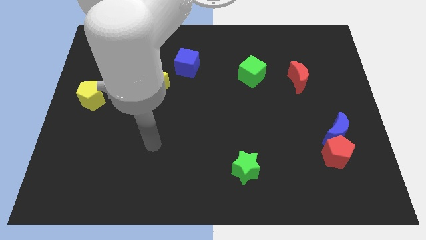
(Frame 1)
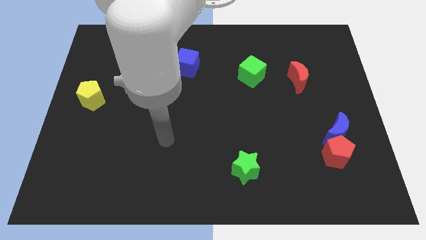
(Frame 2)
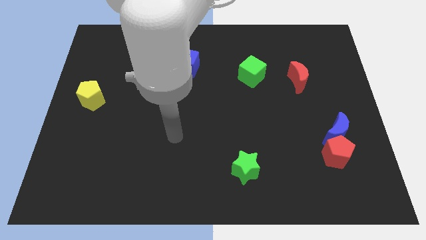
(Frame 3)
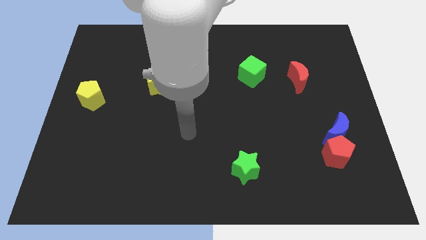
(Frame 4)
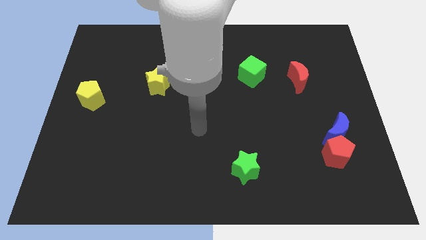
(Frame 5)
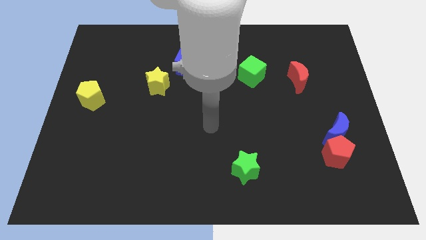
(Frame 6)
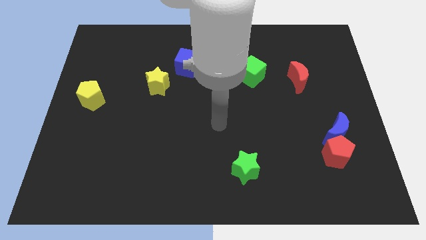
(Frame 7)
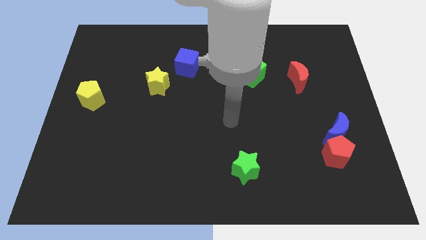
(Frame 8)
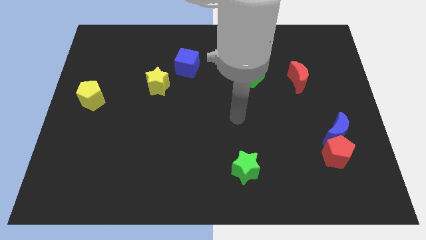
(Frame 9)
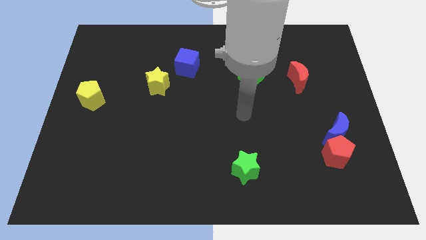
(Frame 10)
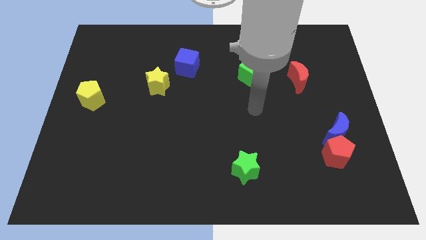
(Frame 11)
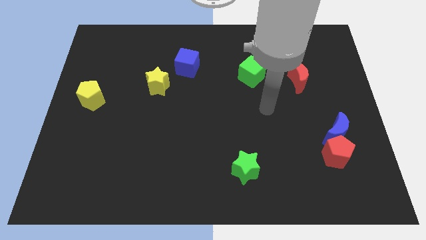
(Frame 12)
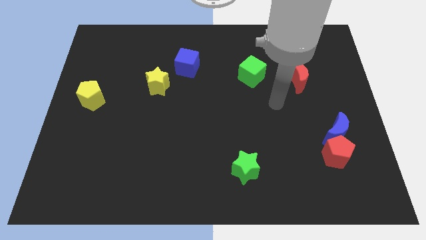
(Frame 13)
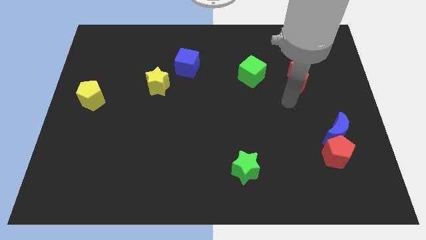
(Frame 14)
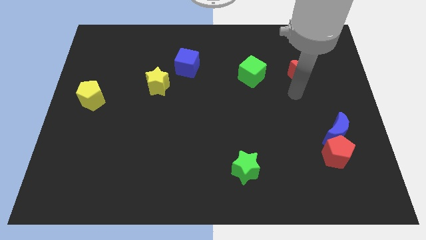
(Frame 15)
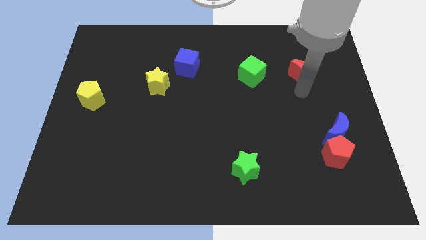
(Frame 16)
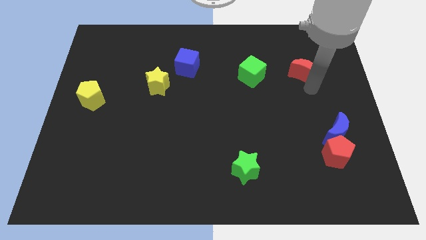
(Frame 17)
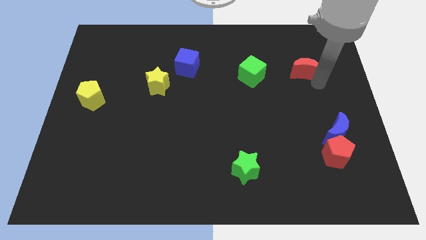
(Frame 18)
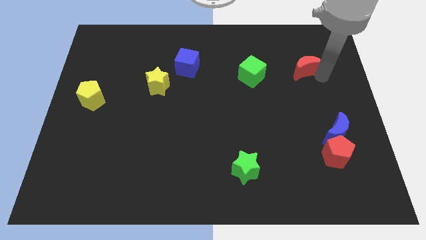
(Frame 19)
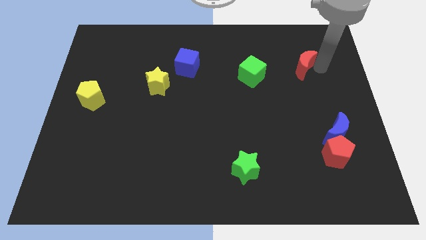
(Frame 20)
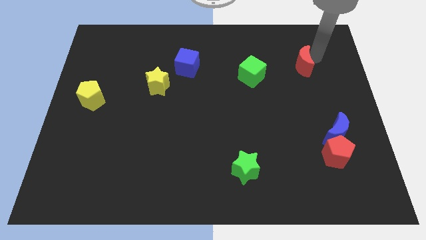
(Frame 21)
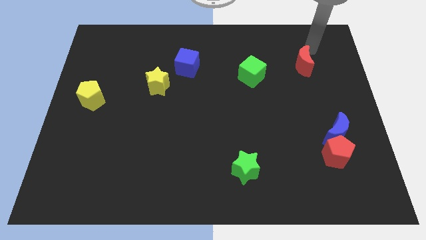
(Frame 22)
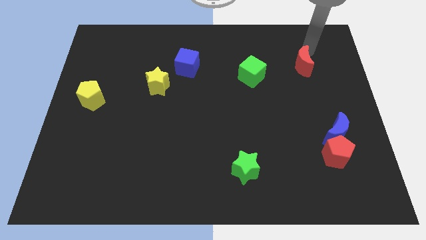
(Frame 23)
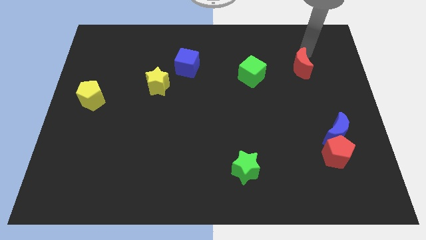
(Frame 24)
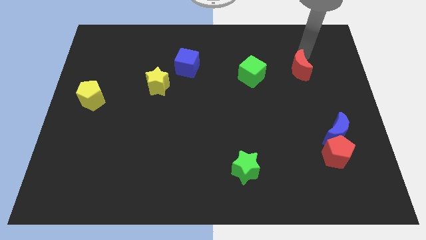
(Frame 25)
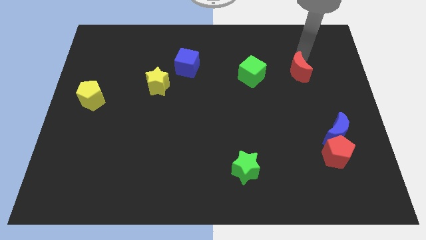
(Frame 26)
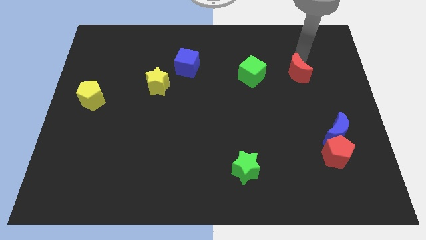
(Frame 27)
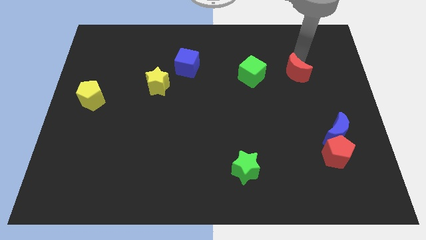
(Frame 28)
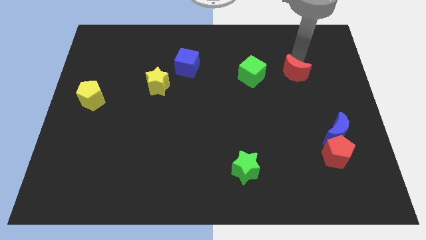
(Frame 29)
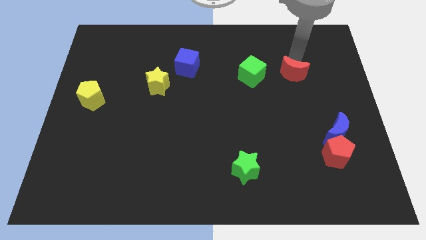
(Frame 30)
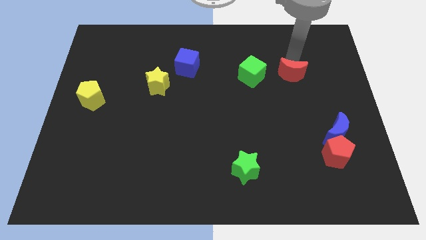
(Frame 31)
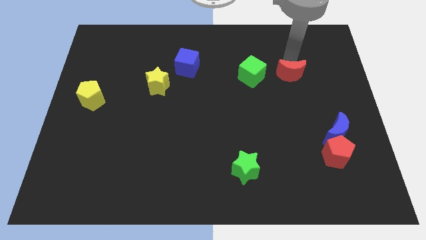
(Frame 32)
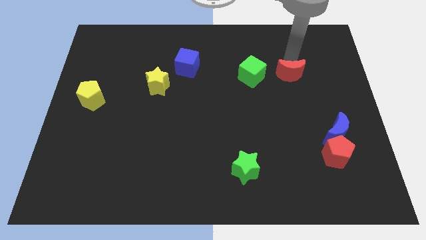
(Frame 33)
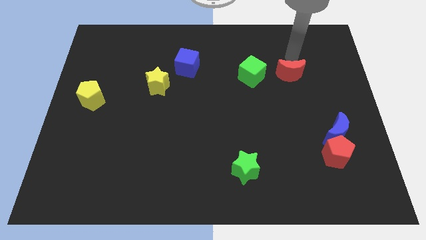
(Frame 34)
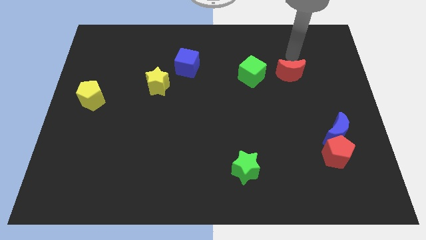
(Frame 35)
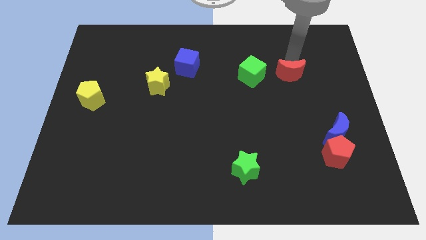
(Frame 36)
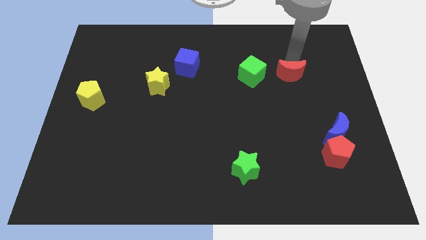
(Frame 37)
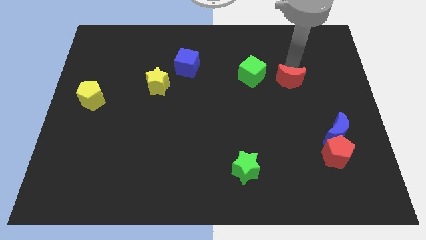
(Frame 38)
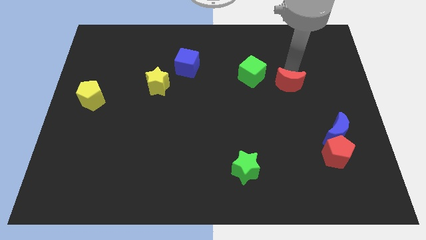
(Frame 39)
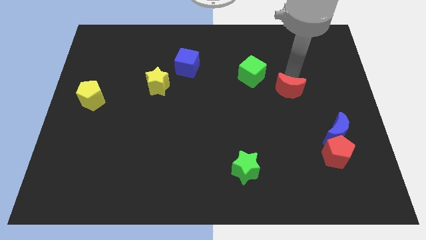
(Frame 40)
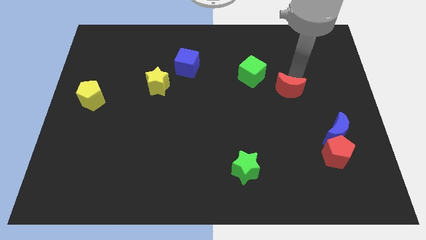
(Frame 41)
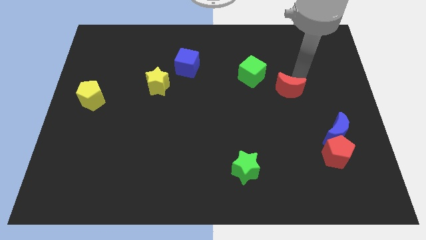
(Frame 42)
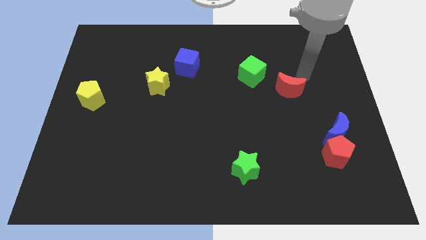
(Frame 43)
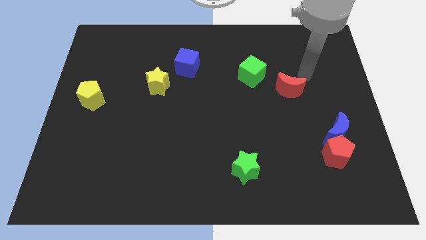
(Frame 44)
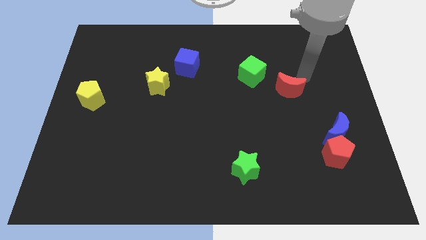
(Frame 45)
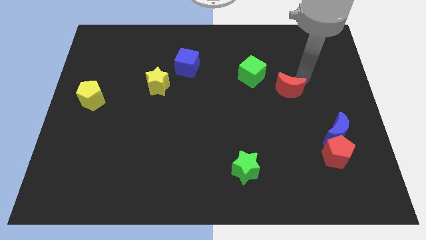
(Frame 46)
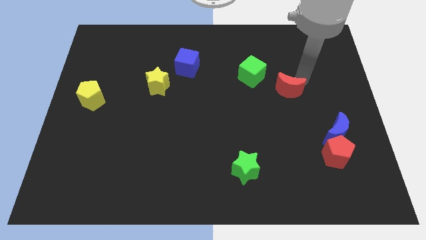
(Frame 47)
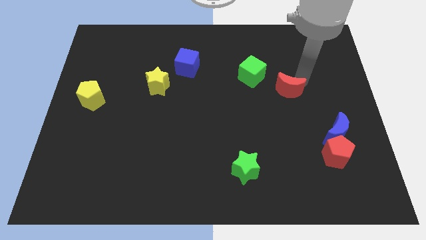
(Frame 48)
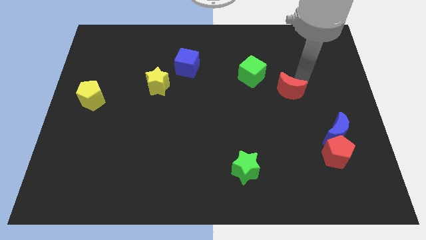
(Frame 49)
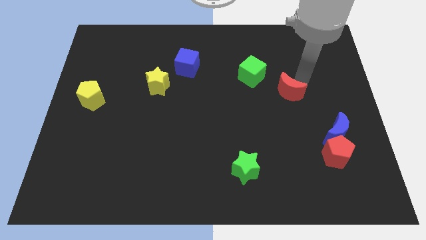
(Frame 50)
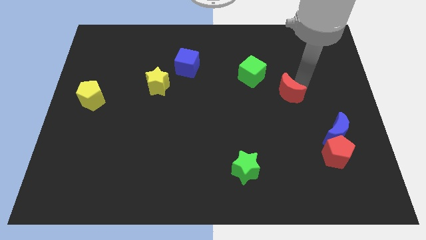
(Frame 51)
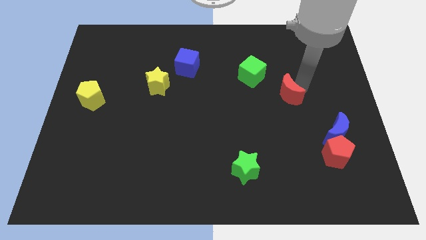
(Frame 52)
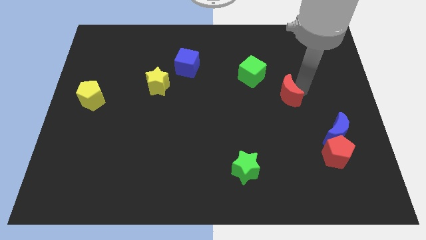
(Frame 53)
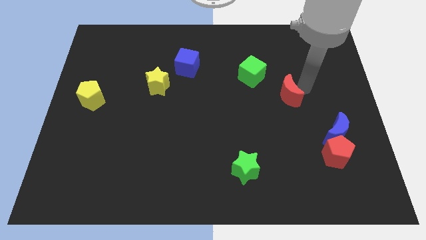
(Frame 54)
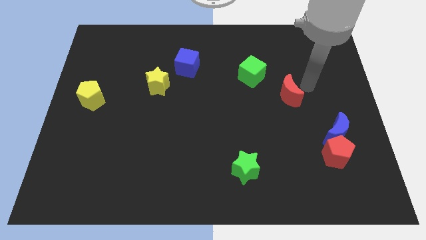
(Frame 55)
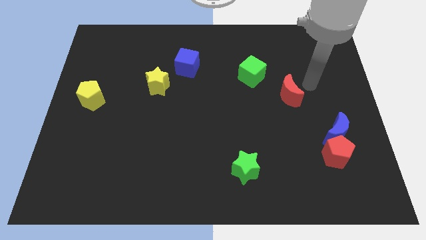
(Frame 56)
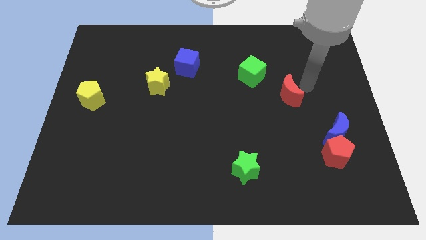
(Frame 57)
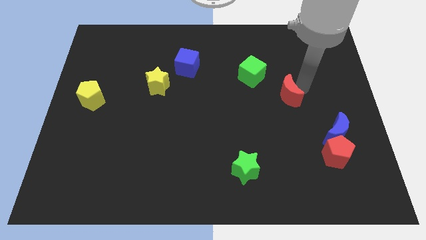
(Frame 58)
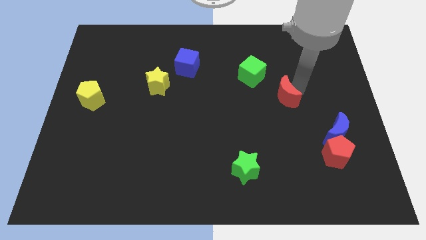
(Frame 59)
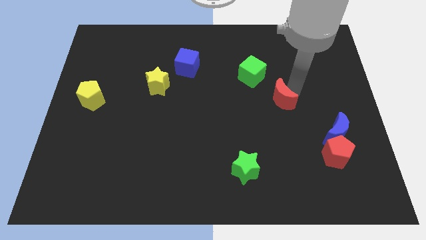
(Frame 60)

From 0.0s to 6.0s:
slightly push the red moon down and to the left diagonally

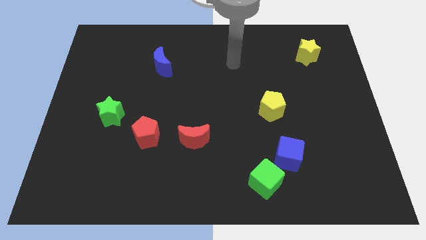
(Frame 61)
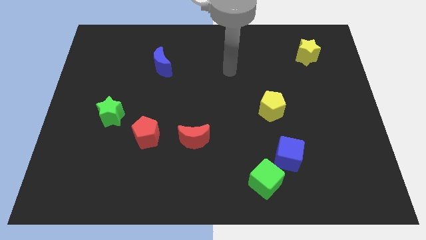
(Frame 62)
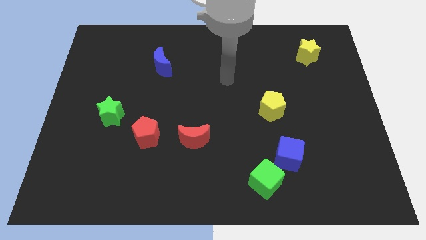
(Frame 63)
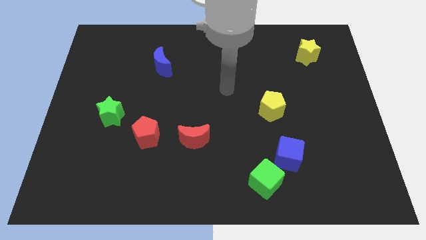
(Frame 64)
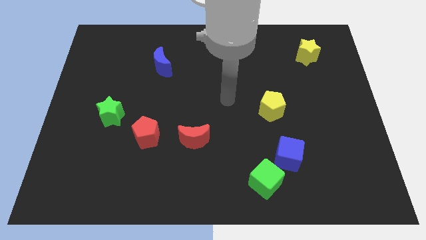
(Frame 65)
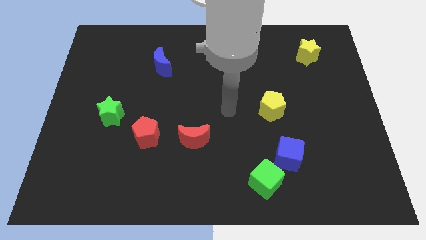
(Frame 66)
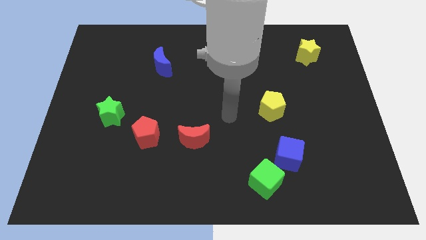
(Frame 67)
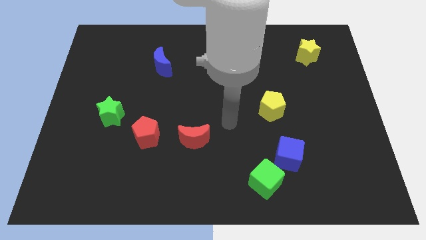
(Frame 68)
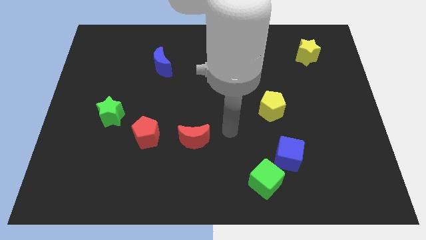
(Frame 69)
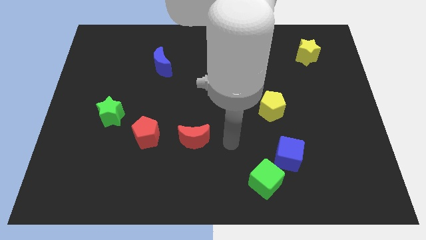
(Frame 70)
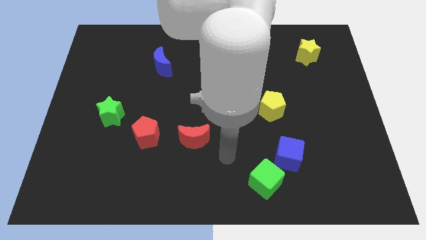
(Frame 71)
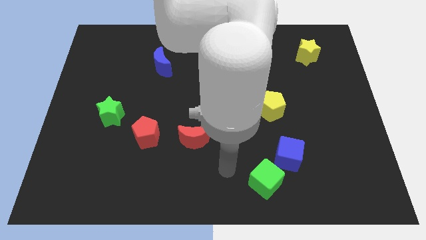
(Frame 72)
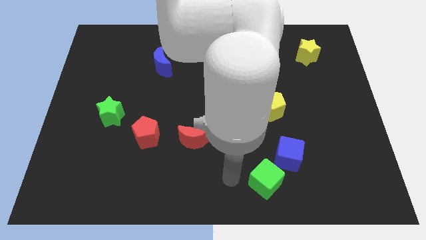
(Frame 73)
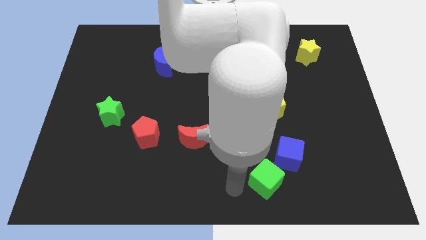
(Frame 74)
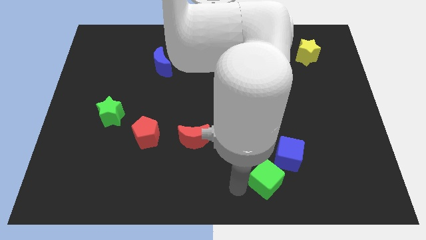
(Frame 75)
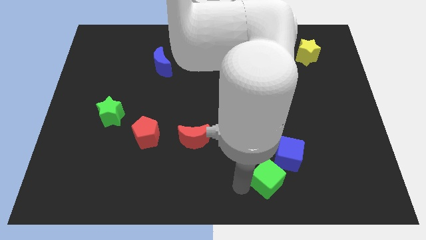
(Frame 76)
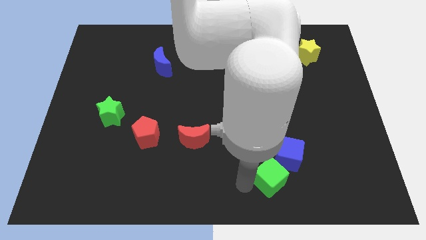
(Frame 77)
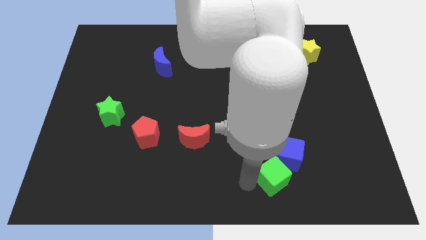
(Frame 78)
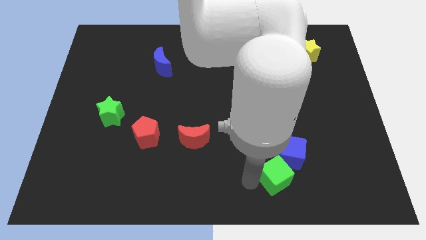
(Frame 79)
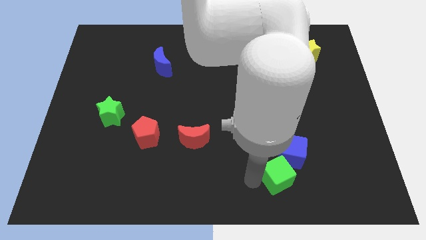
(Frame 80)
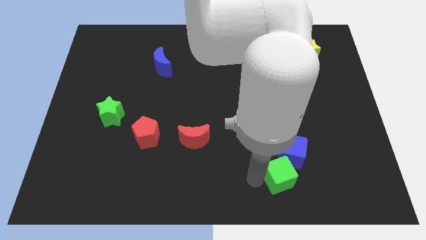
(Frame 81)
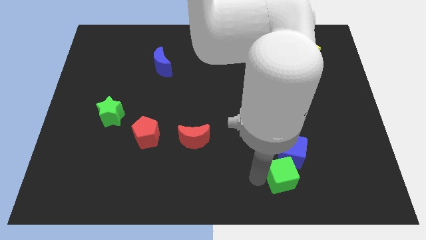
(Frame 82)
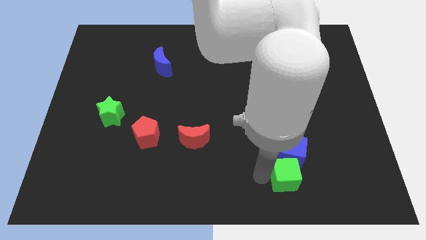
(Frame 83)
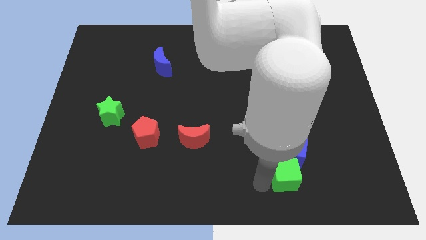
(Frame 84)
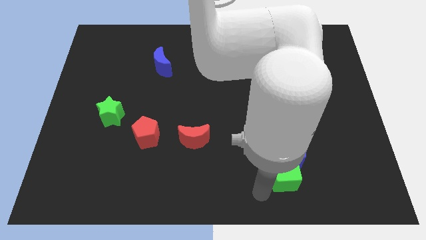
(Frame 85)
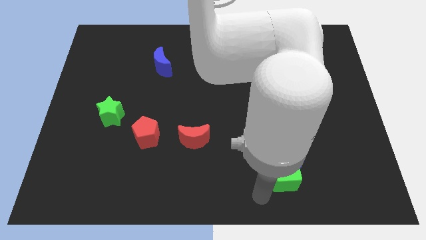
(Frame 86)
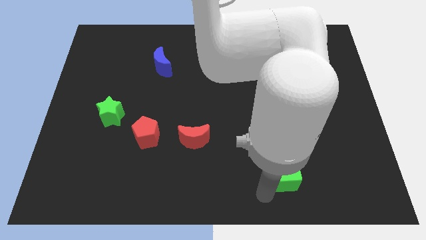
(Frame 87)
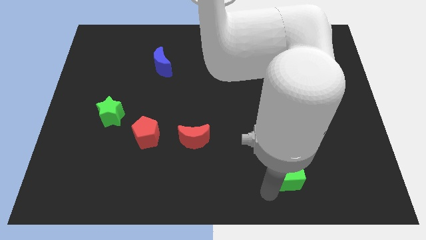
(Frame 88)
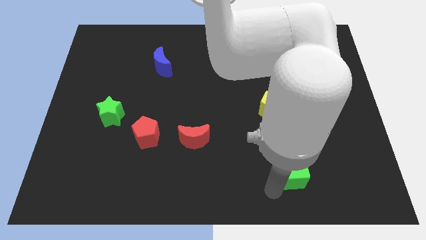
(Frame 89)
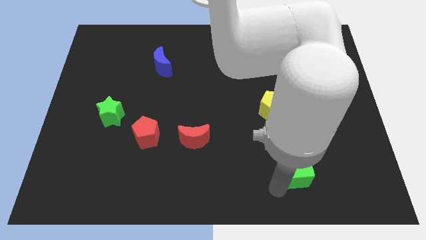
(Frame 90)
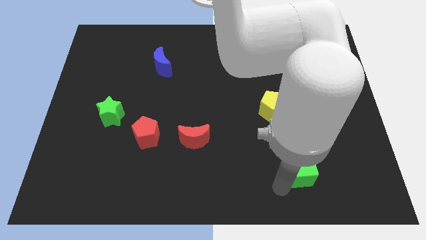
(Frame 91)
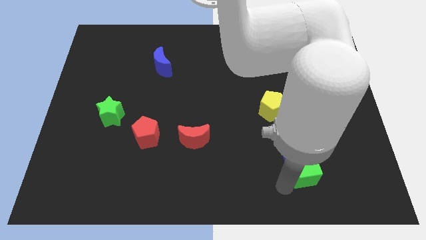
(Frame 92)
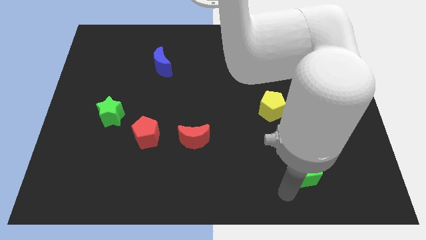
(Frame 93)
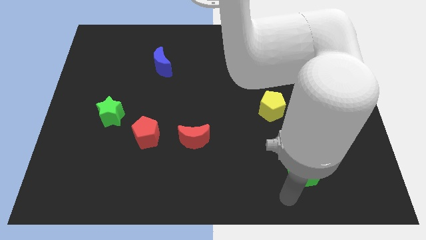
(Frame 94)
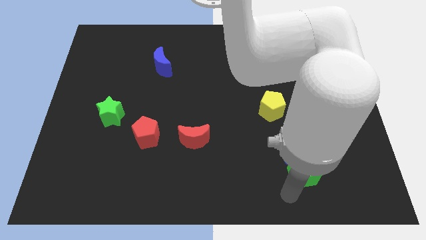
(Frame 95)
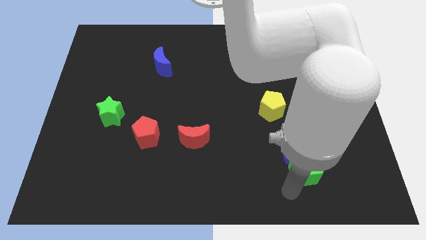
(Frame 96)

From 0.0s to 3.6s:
slightly push the green cube diagonally upwards and right
